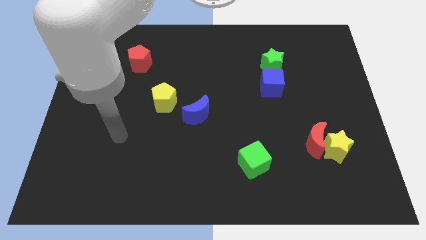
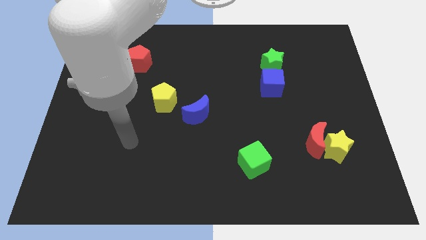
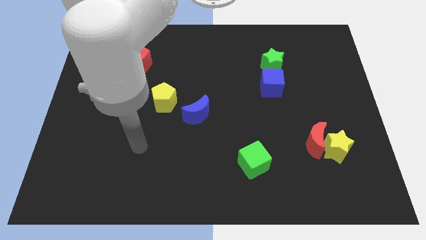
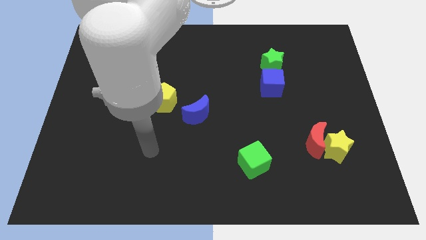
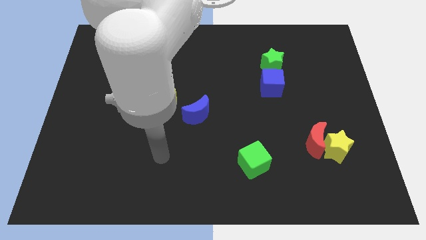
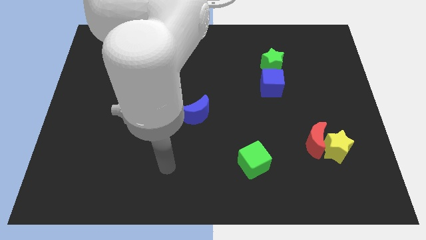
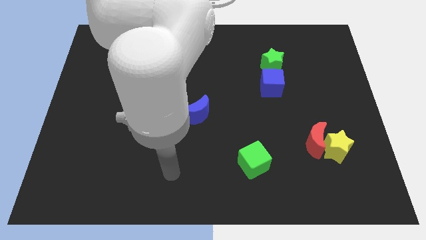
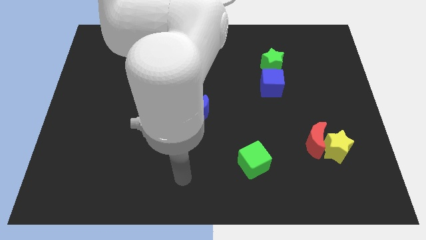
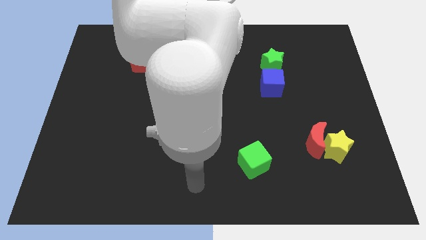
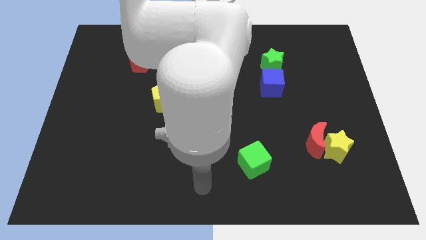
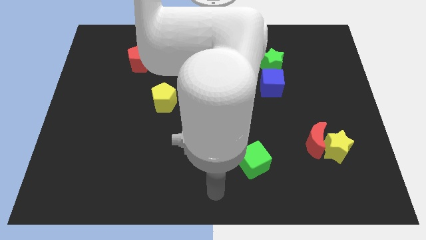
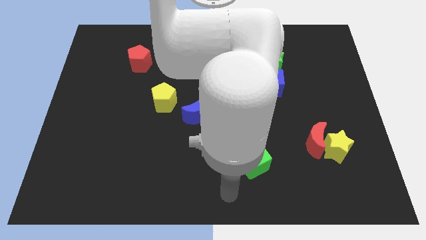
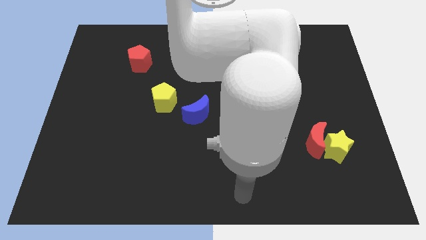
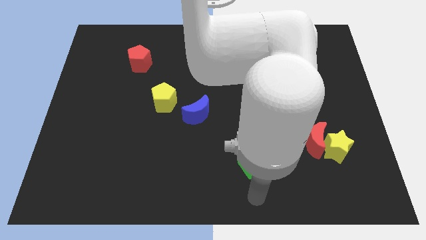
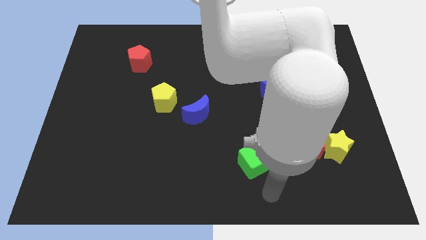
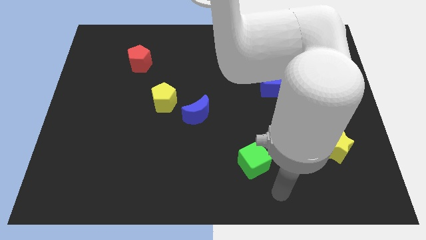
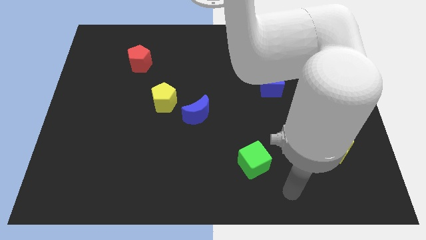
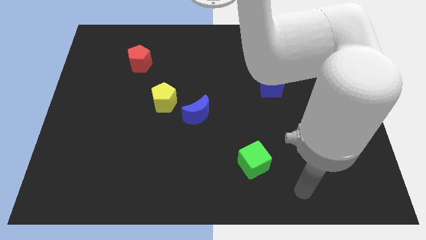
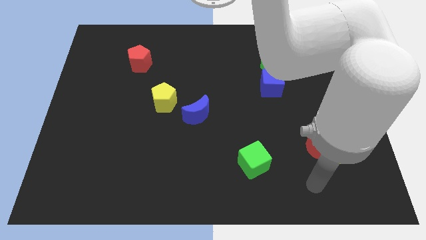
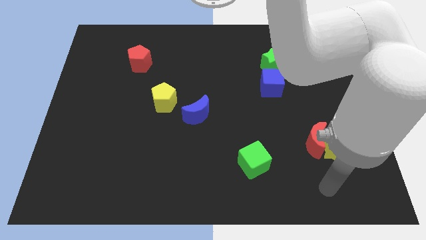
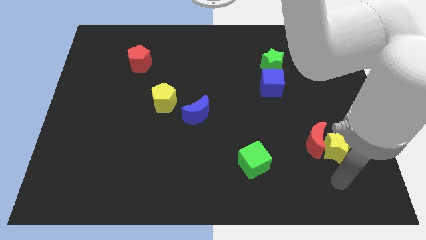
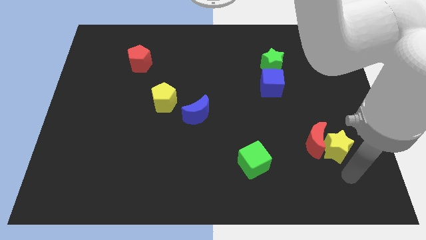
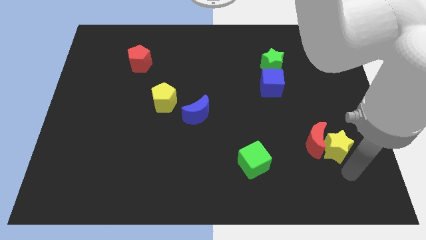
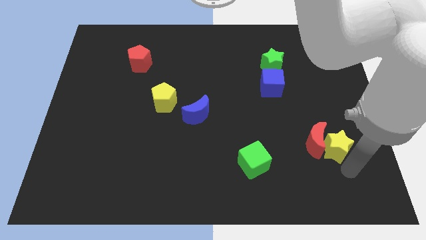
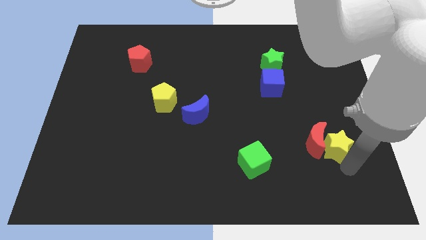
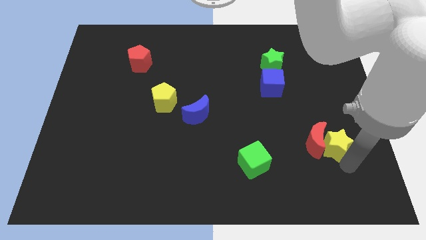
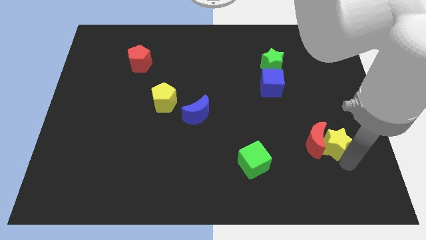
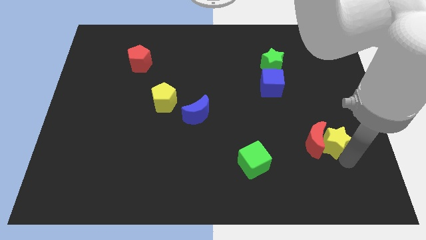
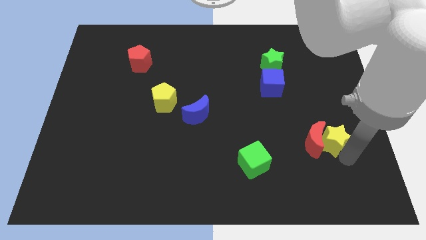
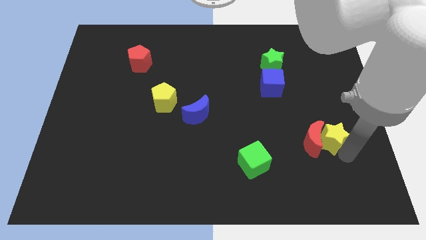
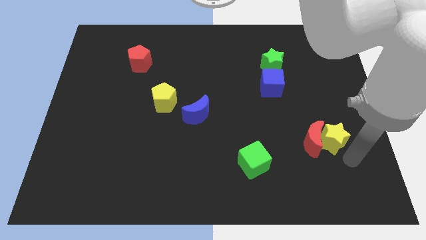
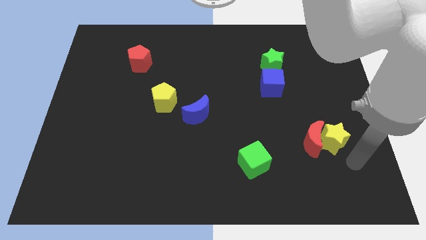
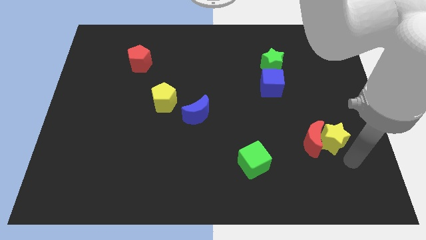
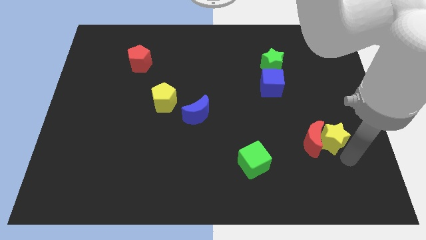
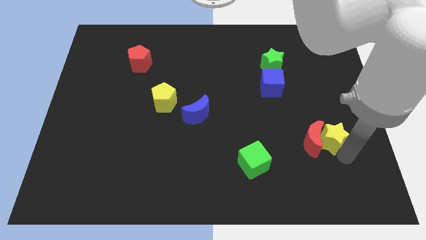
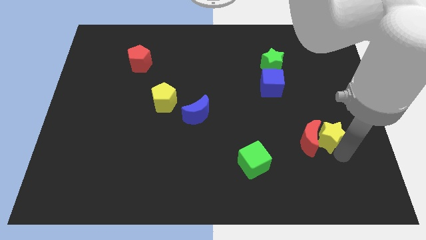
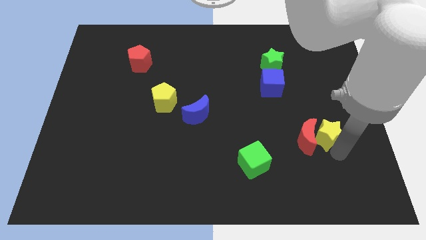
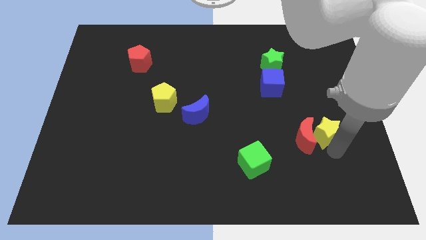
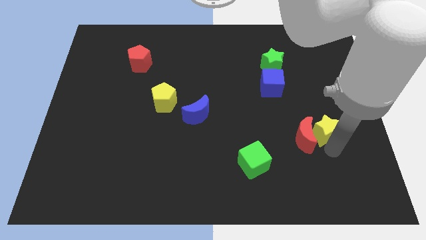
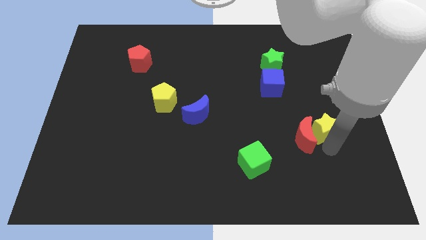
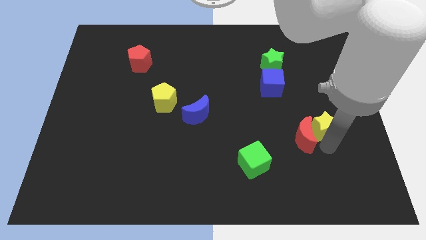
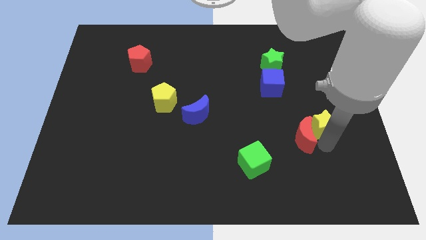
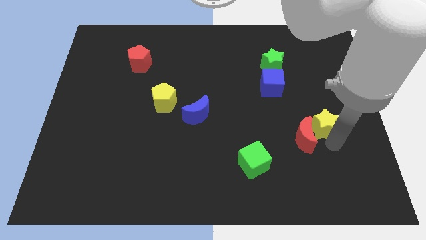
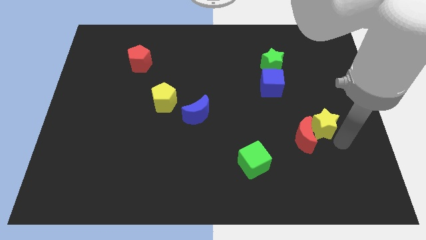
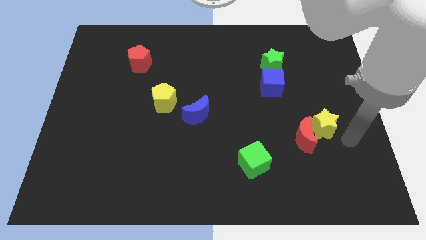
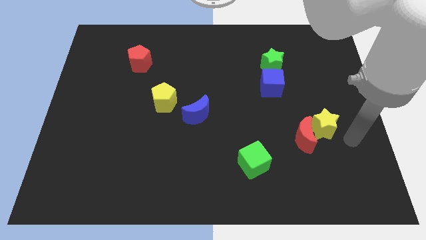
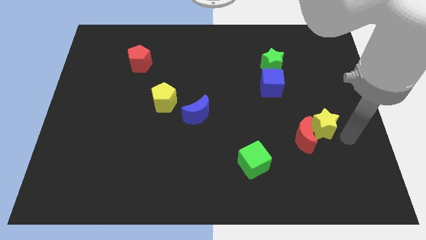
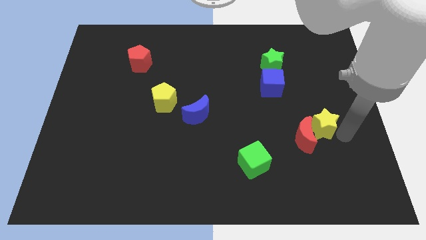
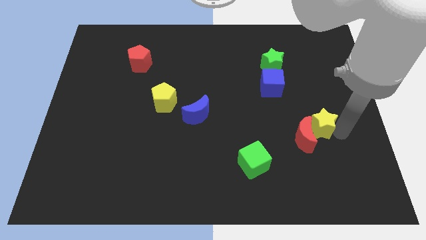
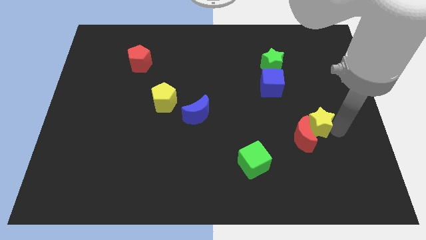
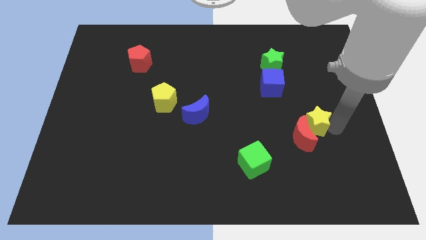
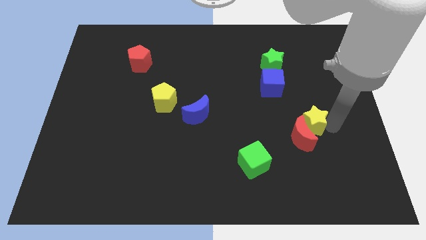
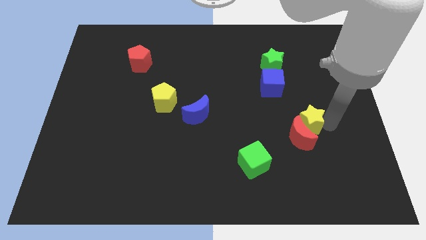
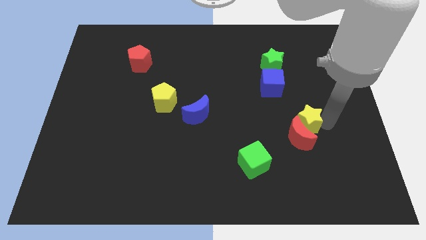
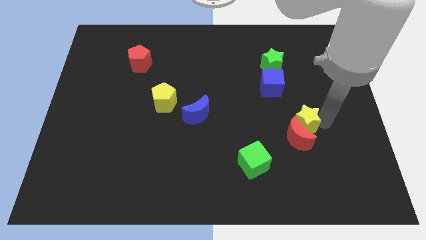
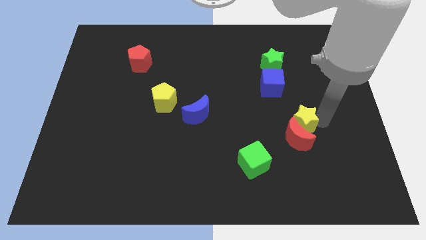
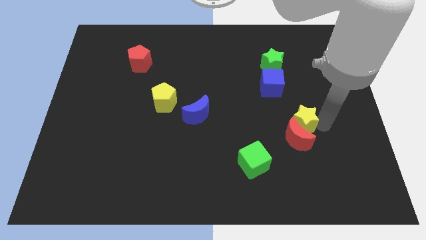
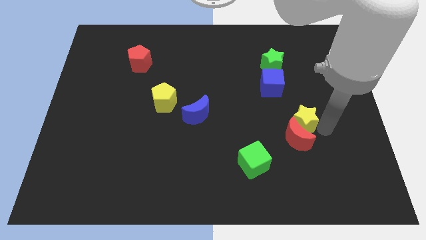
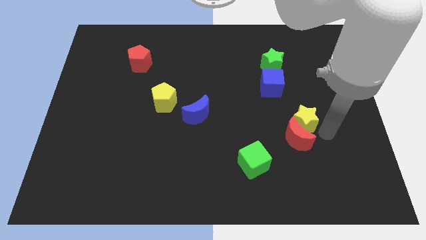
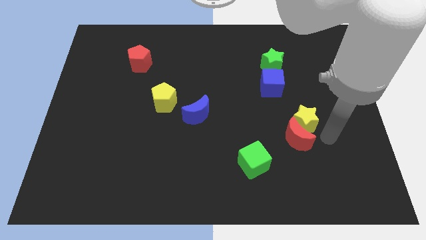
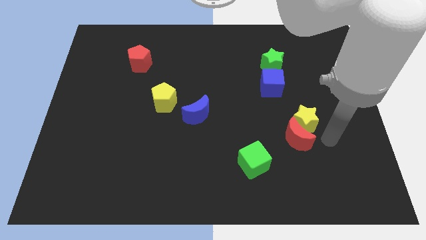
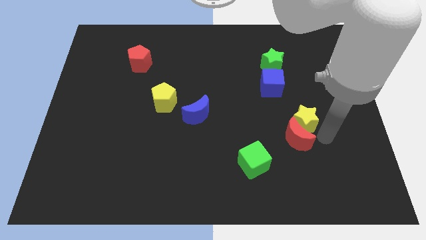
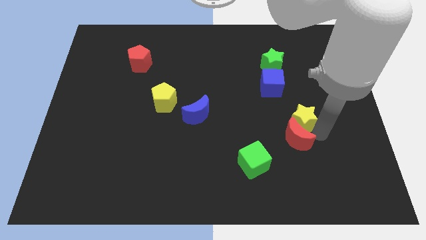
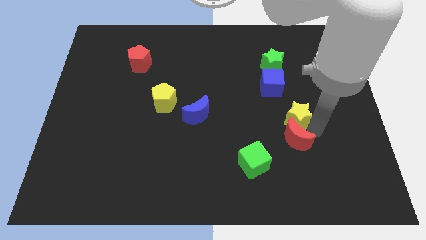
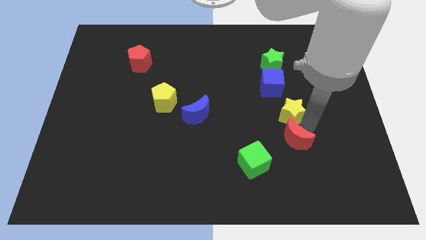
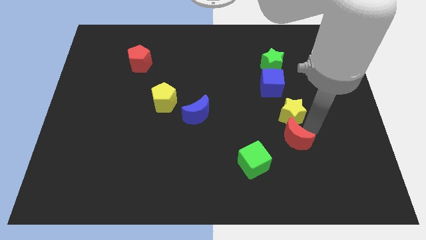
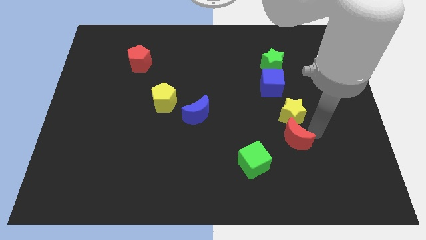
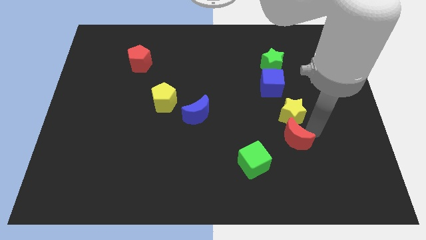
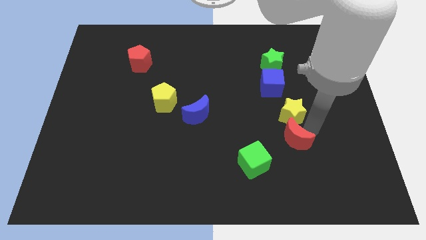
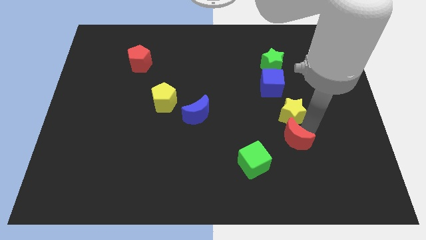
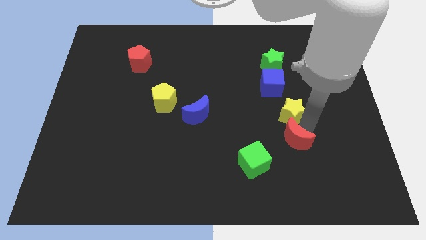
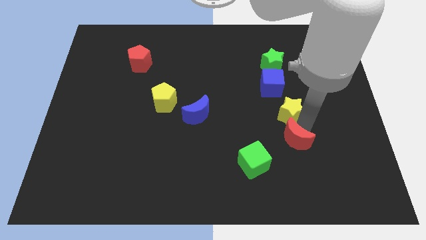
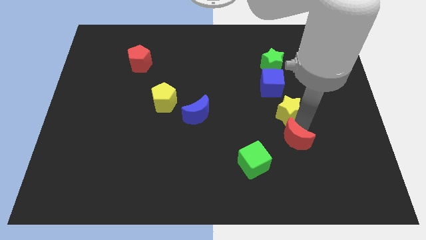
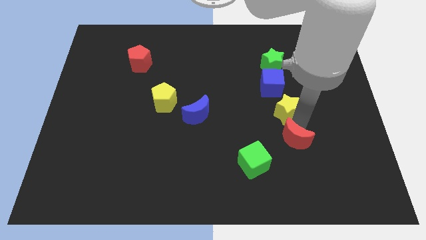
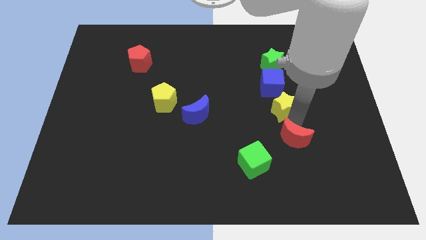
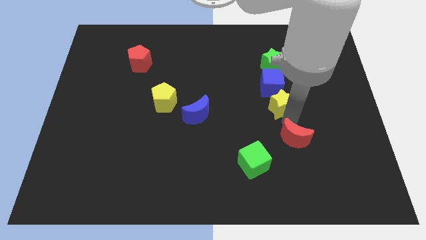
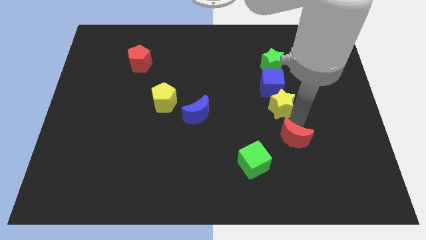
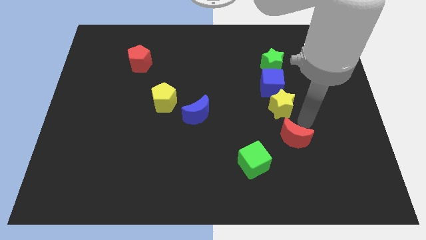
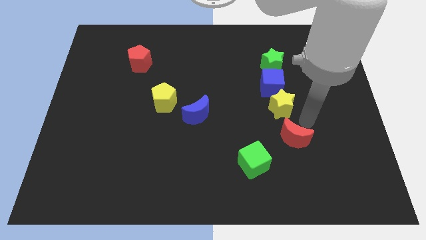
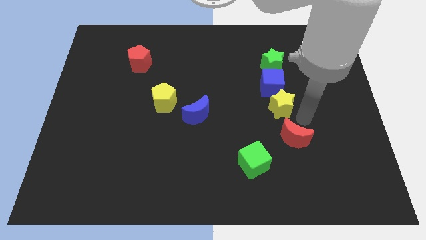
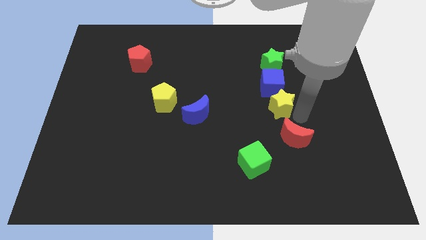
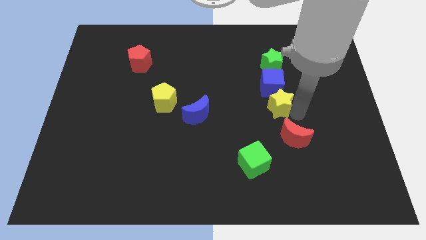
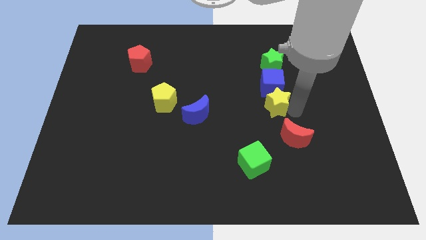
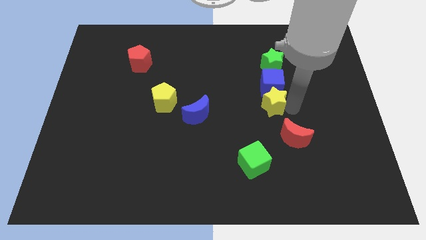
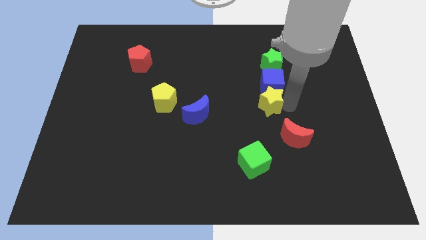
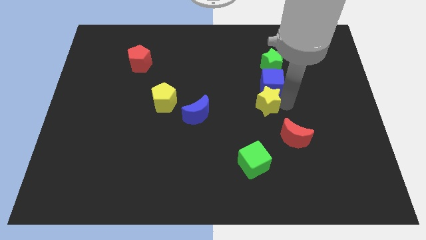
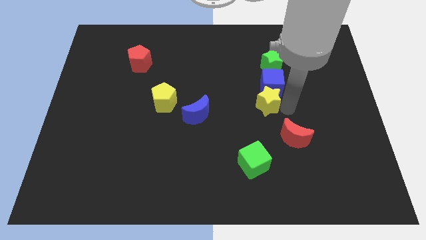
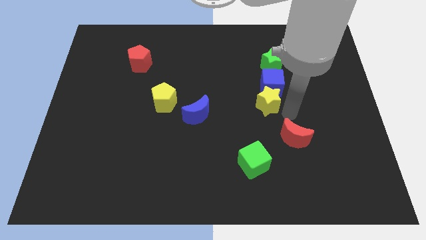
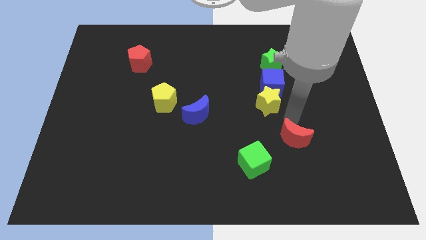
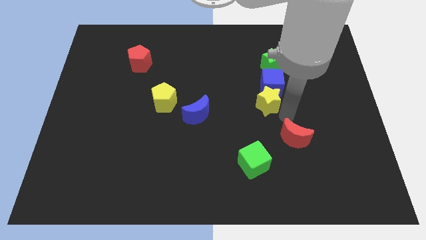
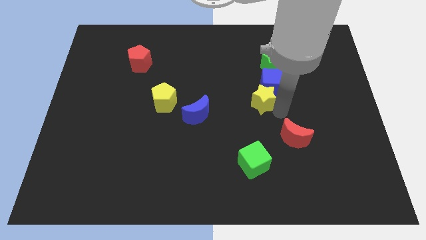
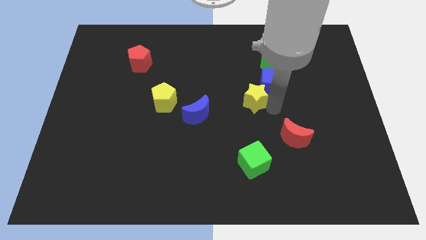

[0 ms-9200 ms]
move the yellow star upwards and left
